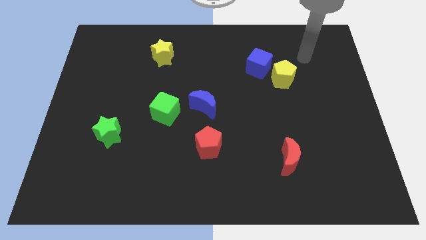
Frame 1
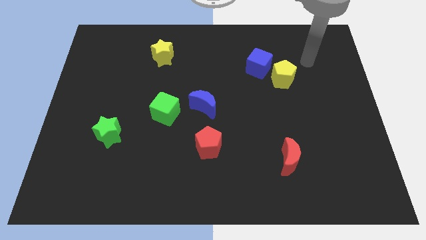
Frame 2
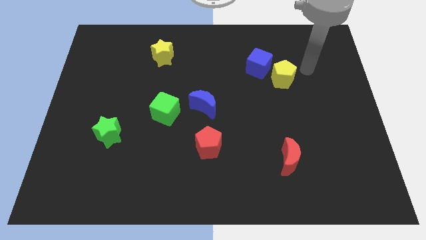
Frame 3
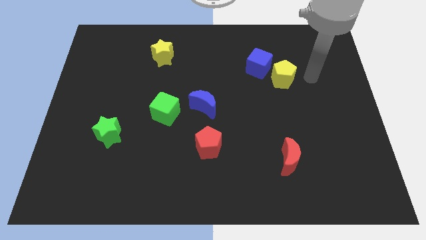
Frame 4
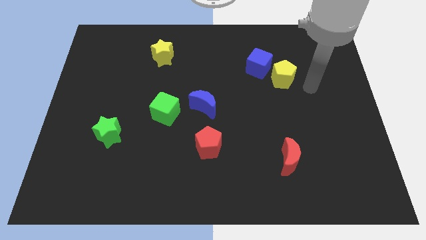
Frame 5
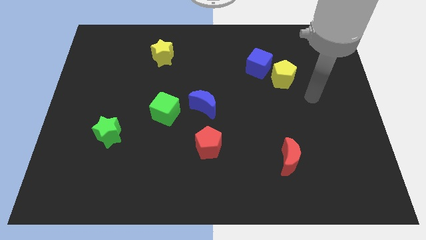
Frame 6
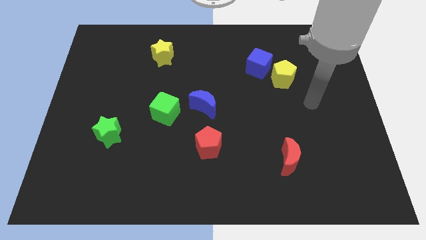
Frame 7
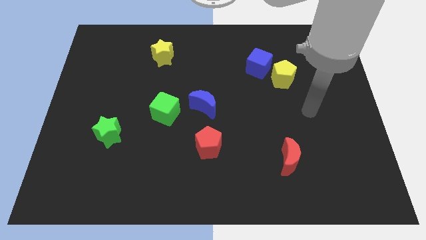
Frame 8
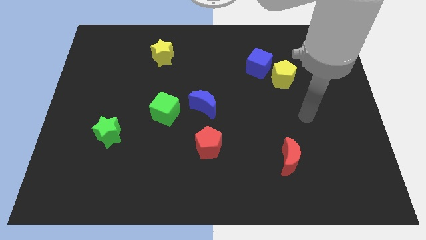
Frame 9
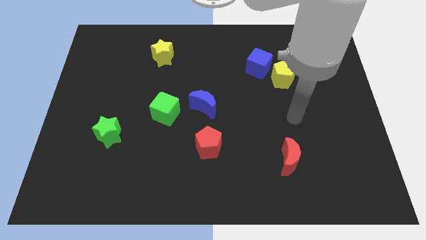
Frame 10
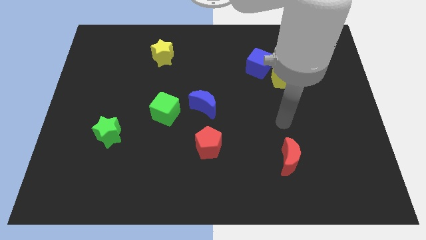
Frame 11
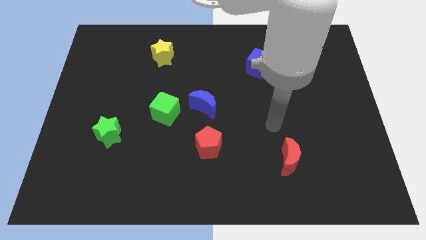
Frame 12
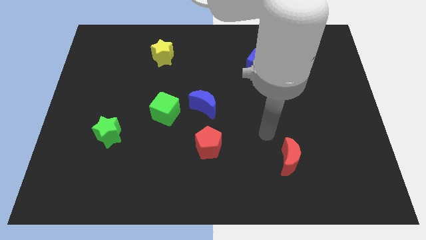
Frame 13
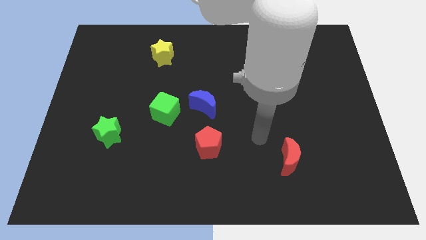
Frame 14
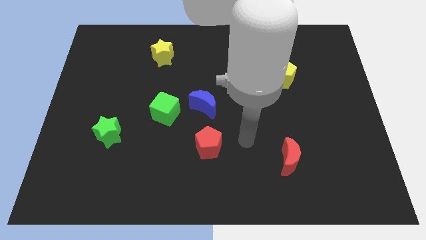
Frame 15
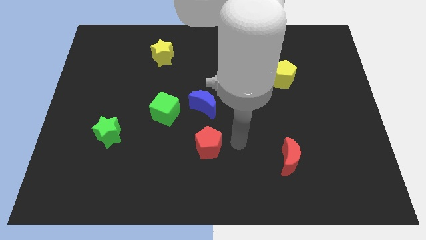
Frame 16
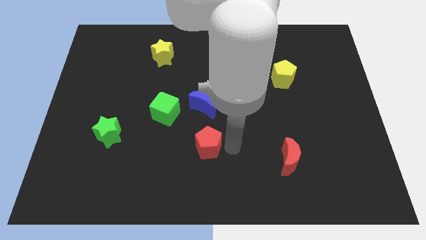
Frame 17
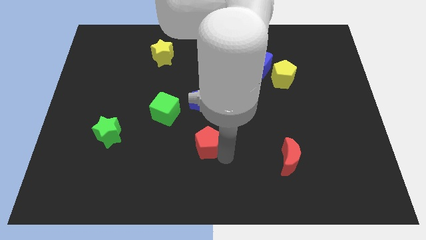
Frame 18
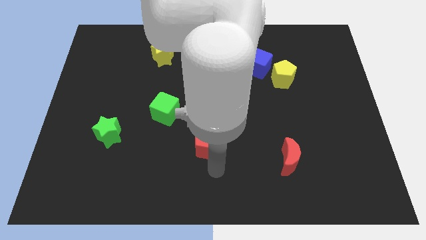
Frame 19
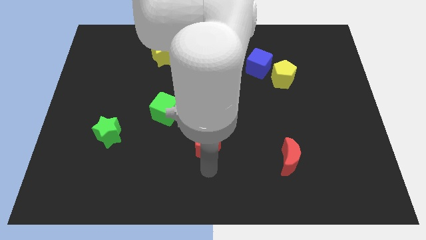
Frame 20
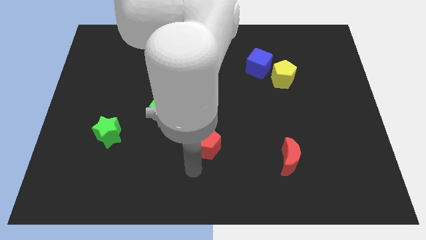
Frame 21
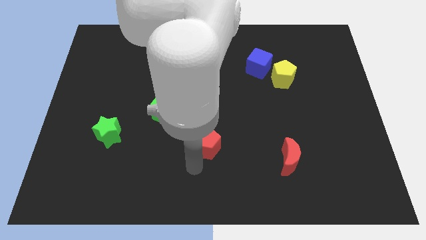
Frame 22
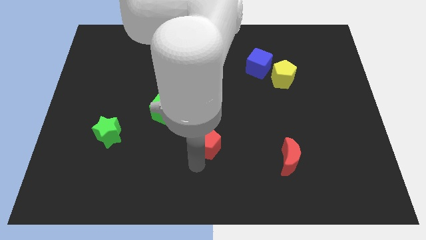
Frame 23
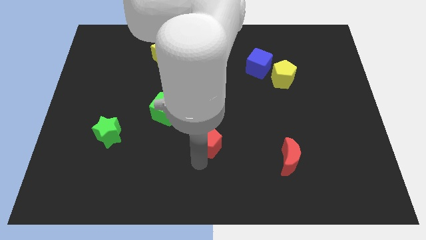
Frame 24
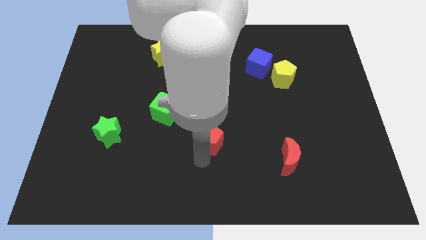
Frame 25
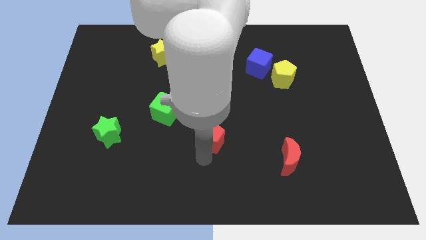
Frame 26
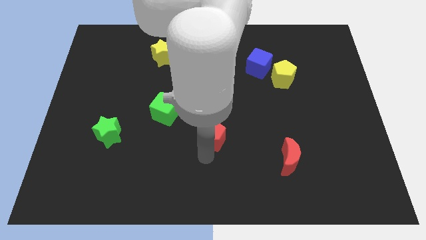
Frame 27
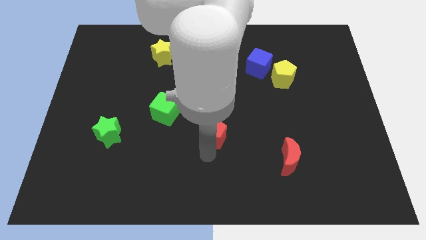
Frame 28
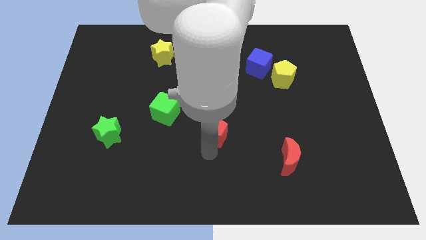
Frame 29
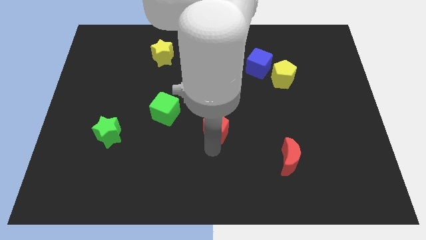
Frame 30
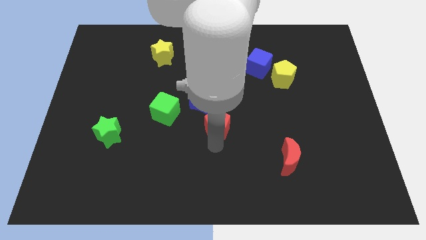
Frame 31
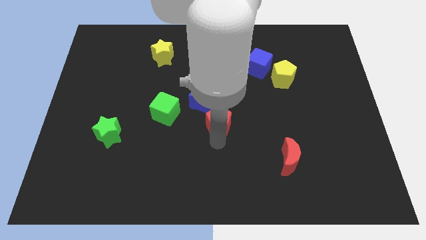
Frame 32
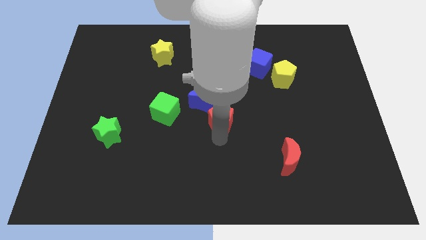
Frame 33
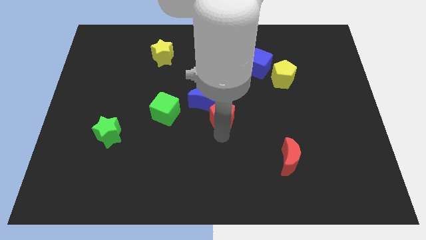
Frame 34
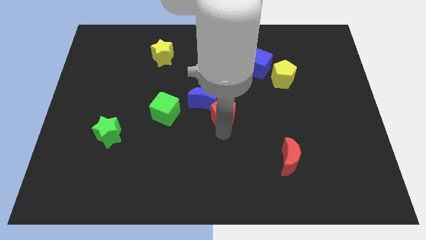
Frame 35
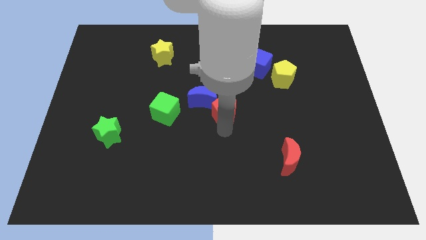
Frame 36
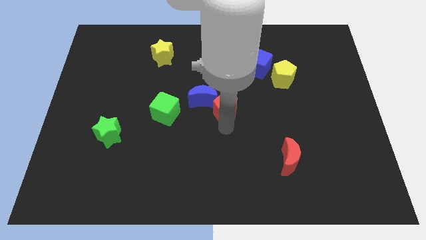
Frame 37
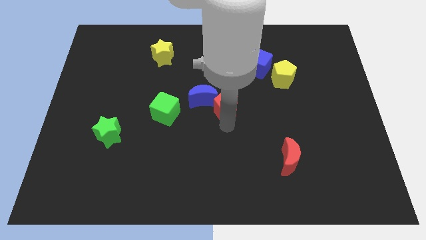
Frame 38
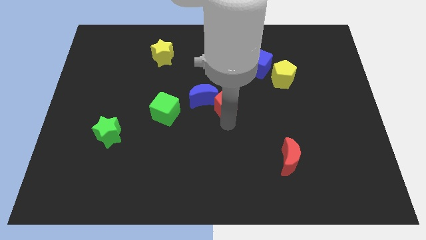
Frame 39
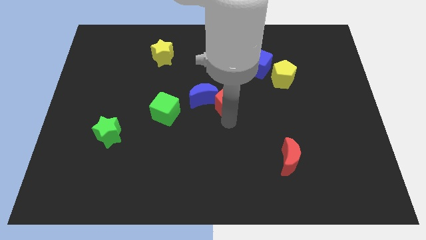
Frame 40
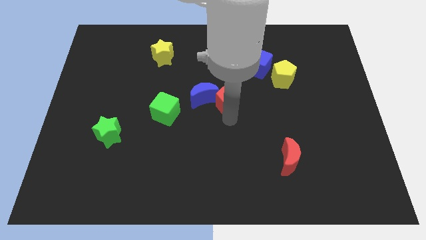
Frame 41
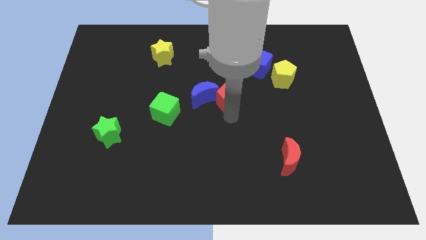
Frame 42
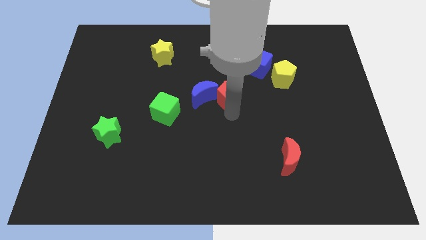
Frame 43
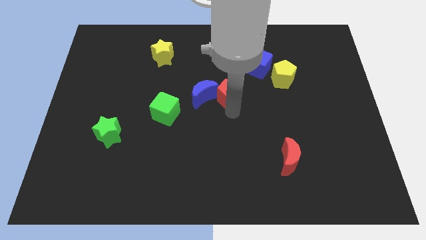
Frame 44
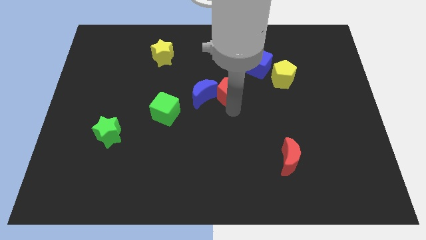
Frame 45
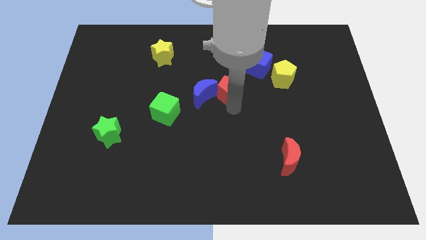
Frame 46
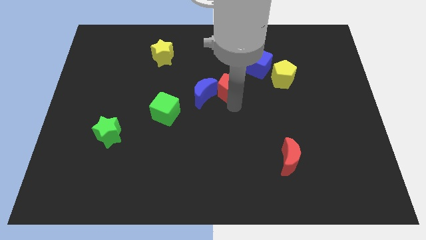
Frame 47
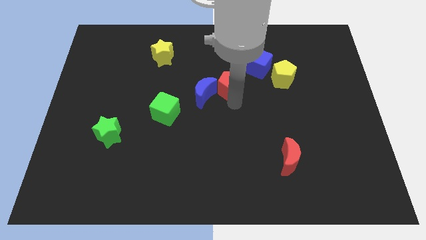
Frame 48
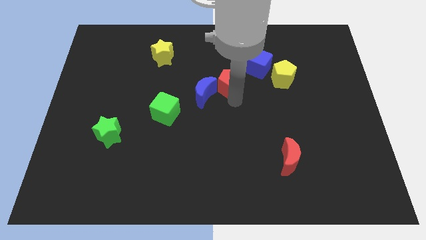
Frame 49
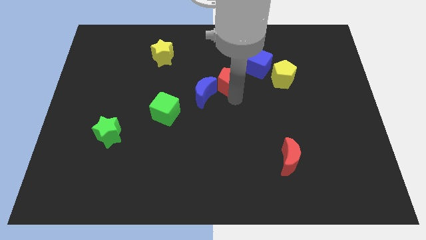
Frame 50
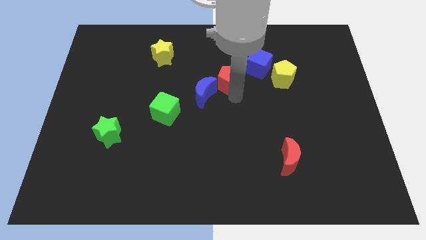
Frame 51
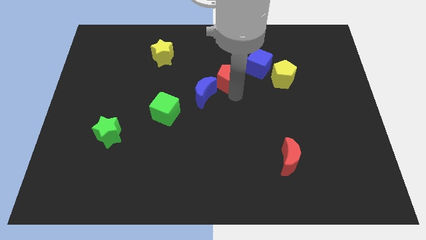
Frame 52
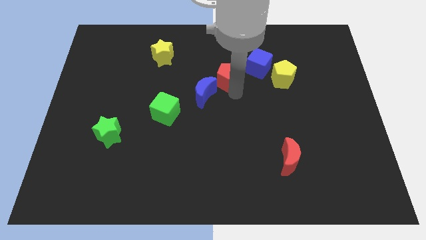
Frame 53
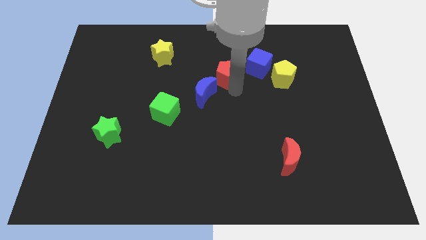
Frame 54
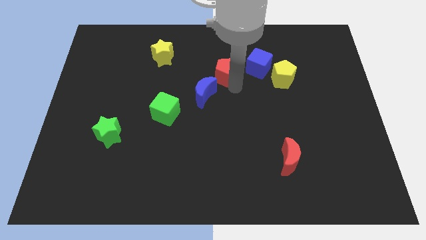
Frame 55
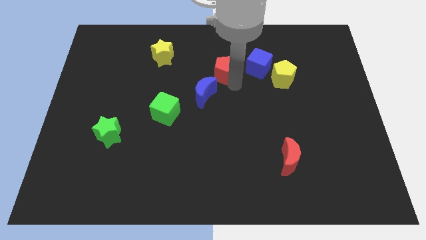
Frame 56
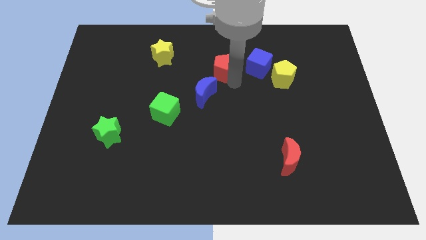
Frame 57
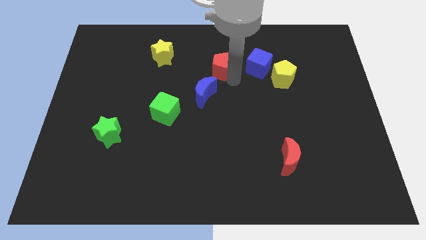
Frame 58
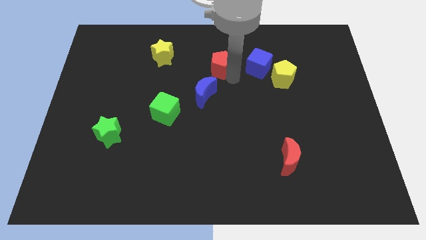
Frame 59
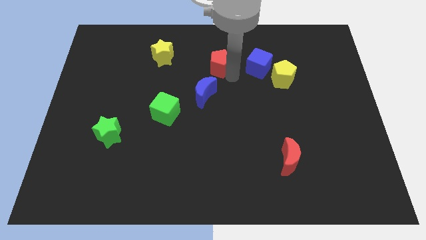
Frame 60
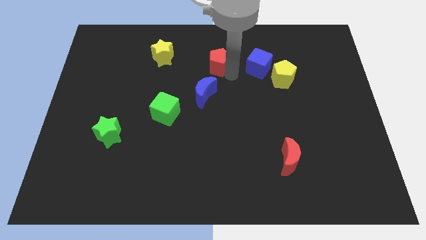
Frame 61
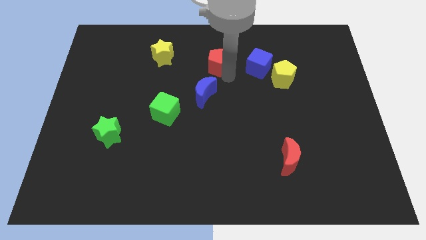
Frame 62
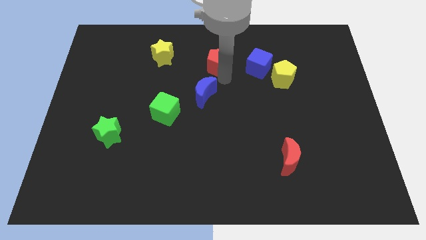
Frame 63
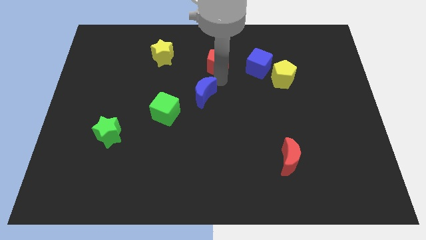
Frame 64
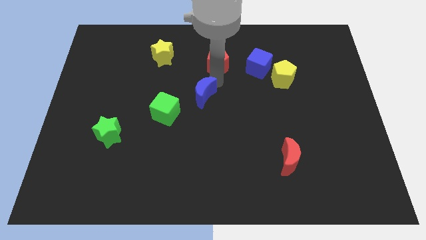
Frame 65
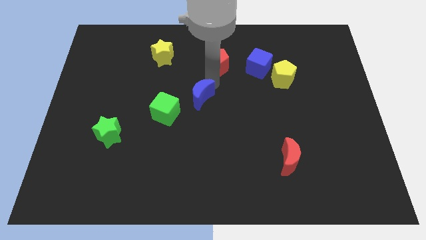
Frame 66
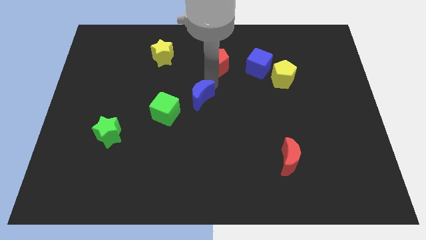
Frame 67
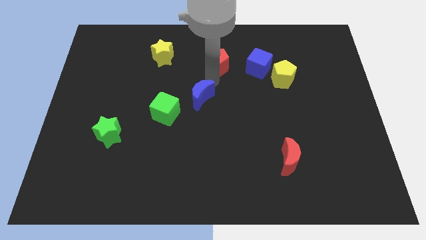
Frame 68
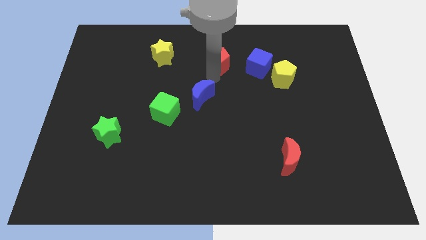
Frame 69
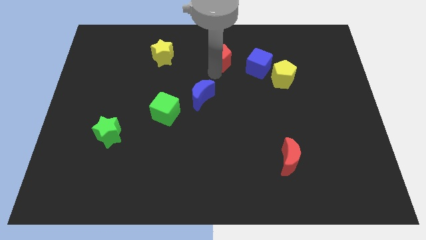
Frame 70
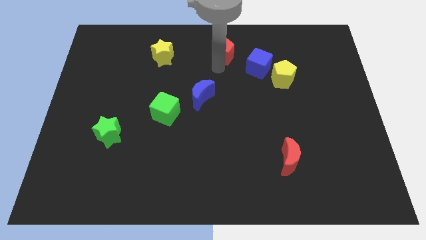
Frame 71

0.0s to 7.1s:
put the red pentagon to the towards your base

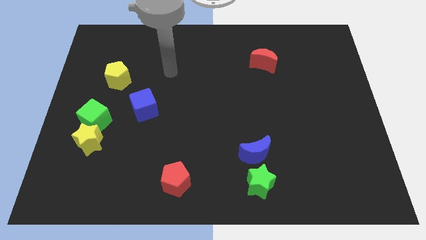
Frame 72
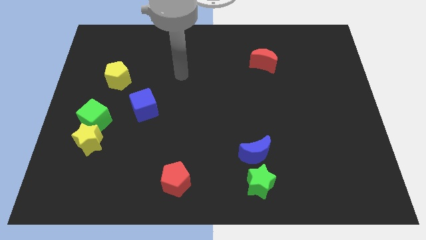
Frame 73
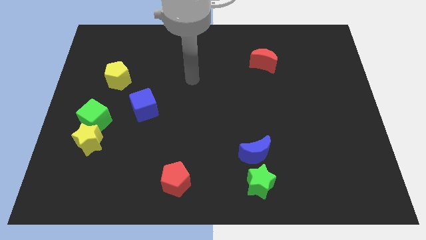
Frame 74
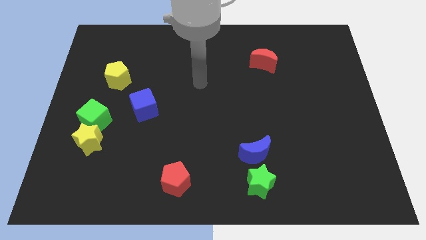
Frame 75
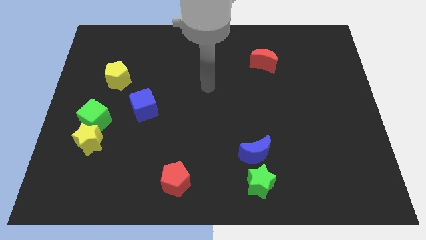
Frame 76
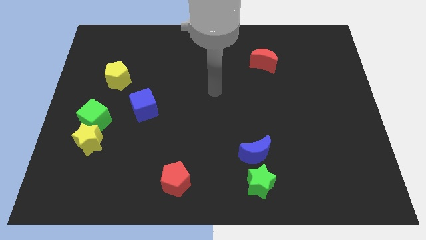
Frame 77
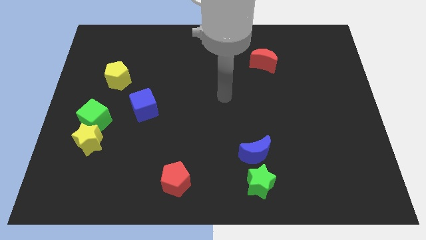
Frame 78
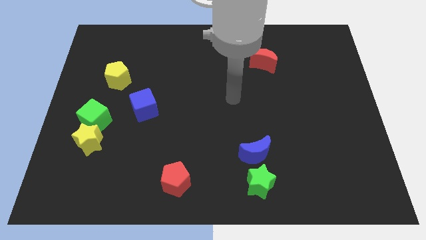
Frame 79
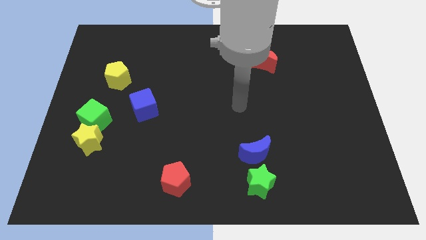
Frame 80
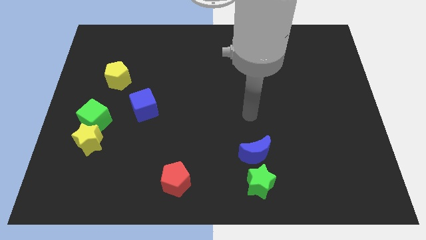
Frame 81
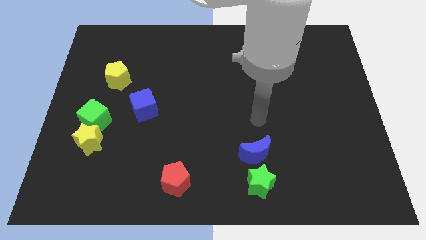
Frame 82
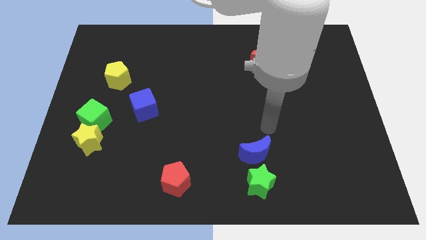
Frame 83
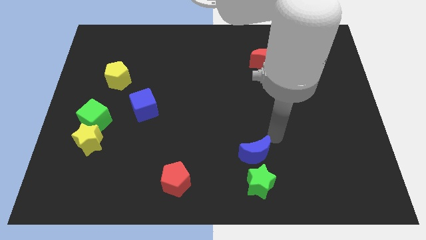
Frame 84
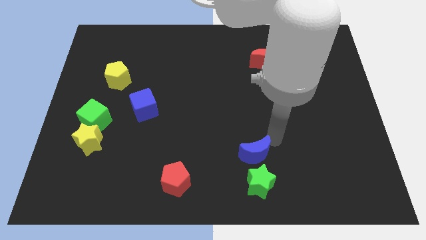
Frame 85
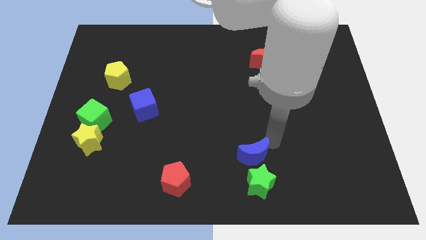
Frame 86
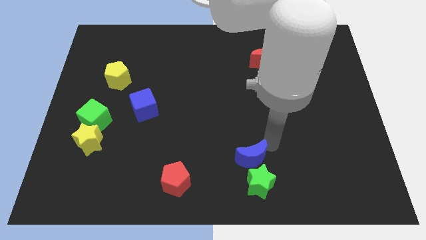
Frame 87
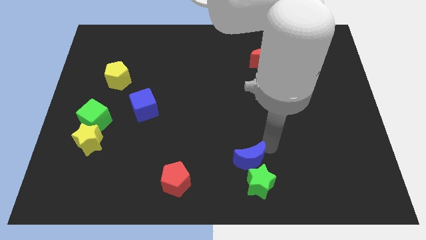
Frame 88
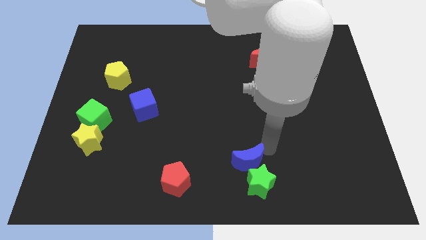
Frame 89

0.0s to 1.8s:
move the blue moon to the bottom
